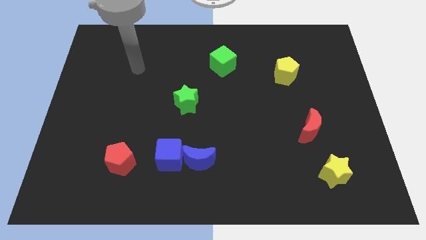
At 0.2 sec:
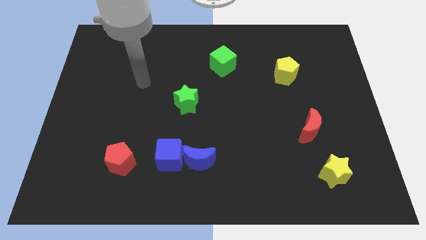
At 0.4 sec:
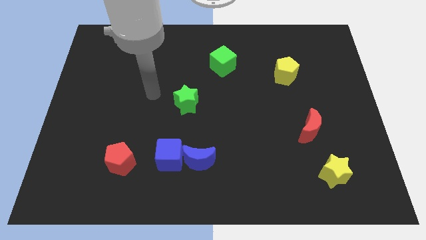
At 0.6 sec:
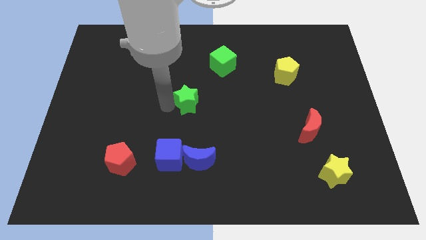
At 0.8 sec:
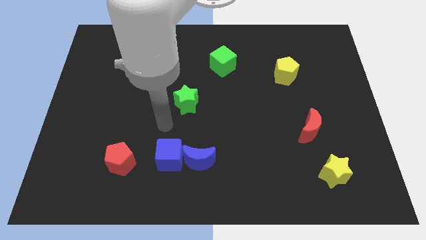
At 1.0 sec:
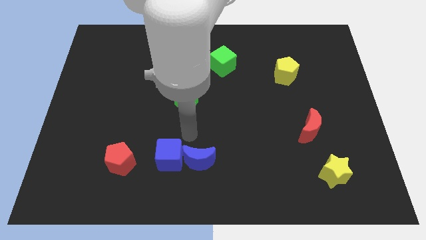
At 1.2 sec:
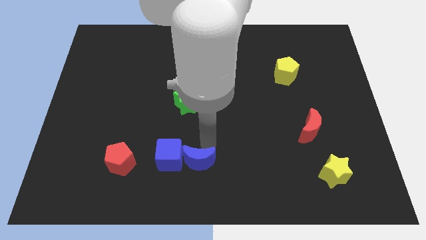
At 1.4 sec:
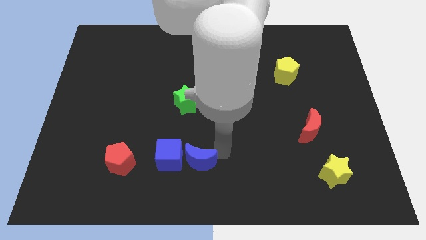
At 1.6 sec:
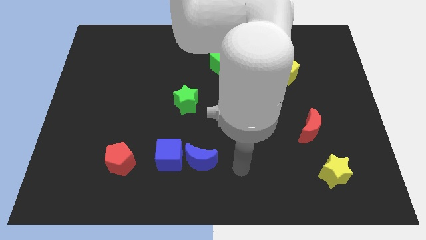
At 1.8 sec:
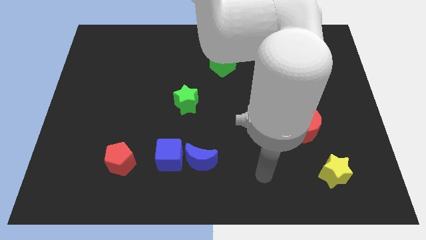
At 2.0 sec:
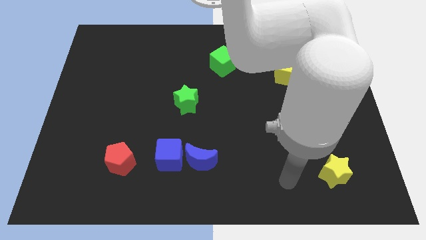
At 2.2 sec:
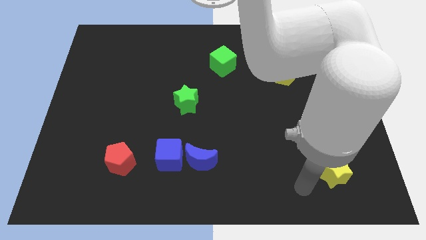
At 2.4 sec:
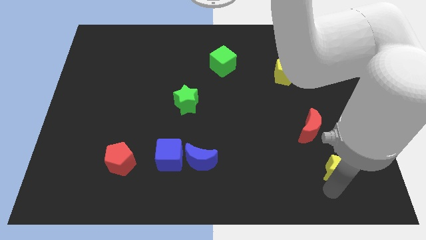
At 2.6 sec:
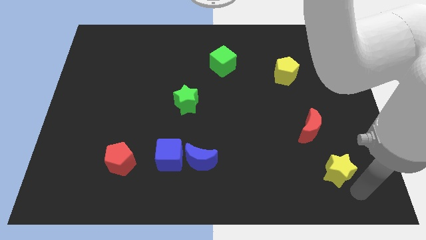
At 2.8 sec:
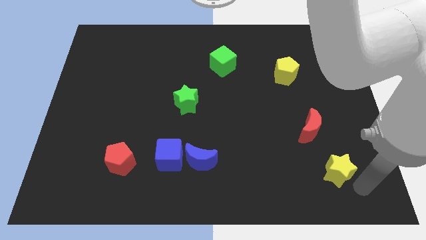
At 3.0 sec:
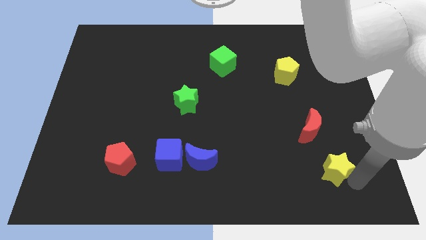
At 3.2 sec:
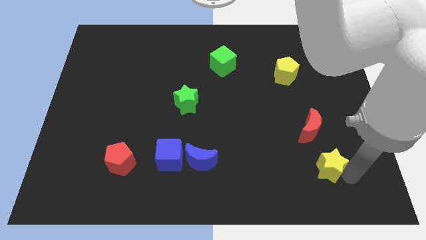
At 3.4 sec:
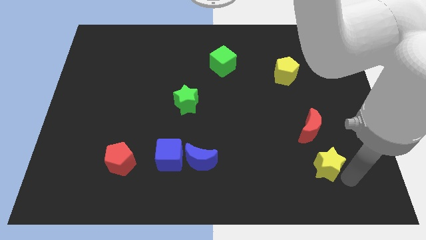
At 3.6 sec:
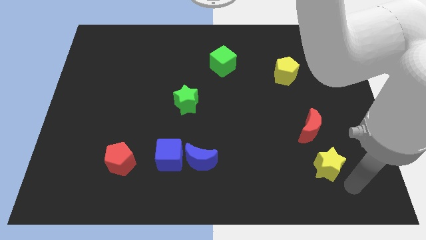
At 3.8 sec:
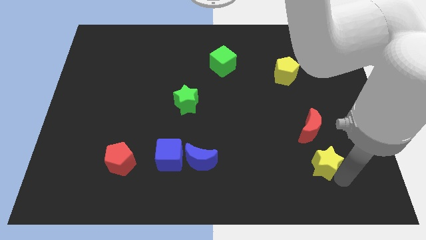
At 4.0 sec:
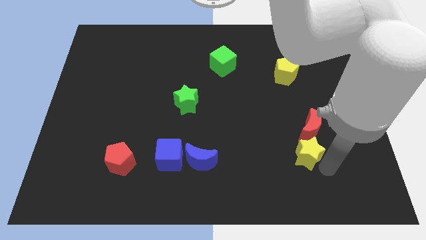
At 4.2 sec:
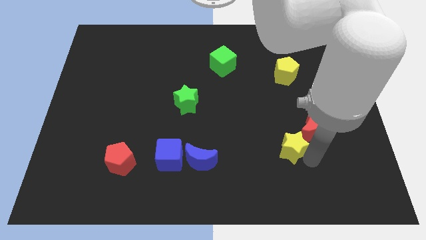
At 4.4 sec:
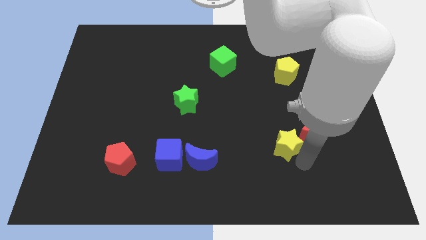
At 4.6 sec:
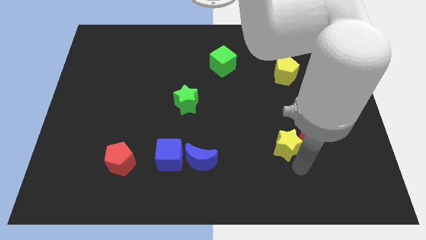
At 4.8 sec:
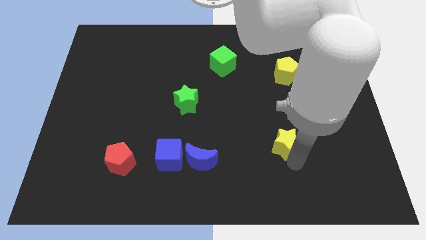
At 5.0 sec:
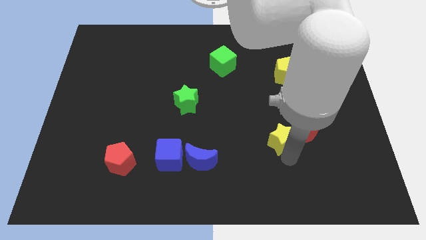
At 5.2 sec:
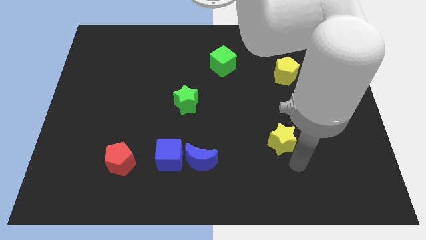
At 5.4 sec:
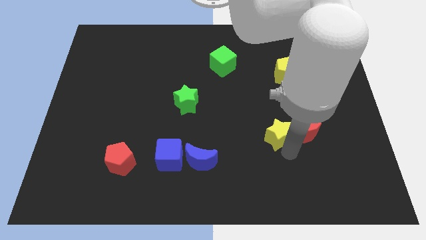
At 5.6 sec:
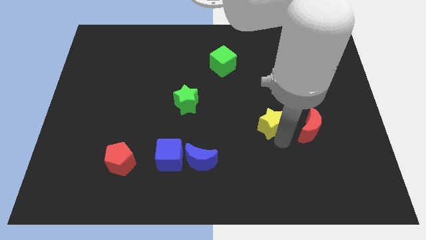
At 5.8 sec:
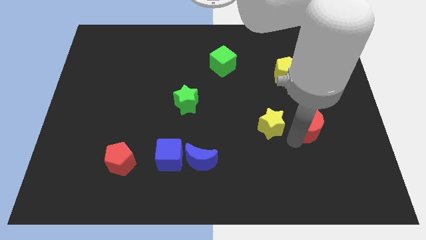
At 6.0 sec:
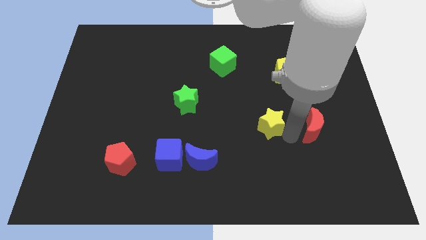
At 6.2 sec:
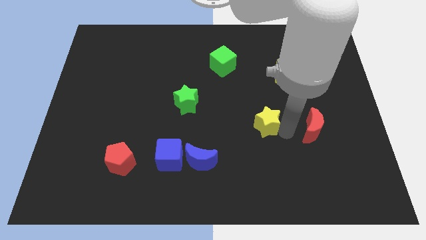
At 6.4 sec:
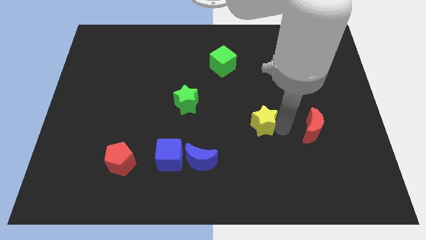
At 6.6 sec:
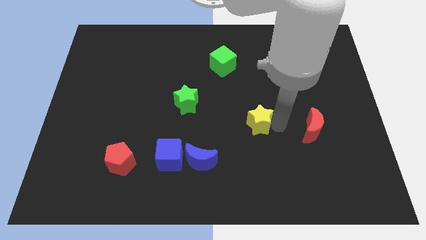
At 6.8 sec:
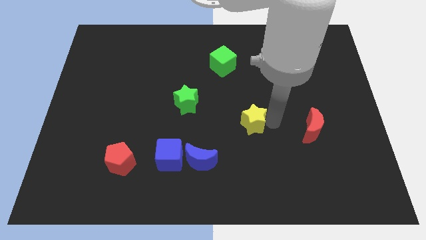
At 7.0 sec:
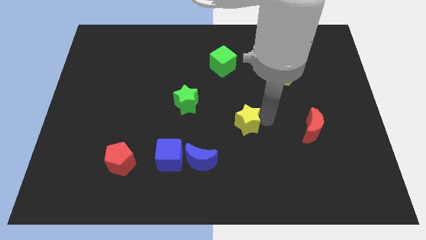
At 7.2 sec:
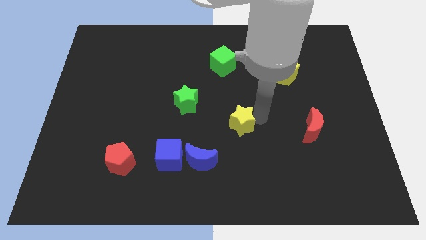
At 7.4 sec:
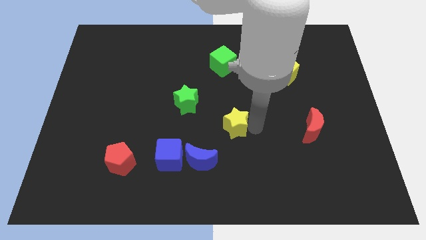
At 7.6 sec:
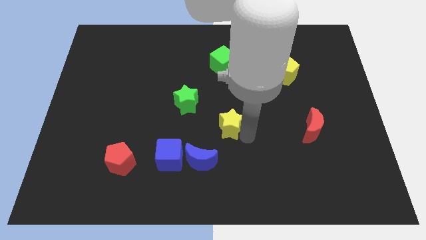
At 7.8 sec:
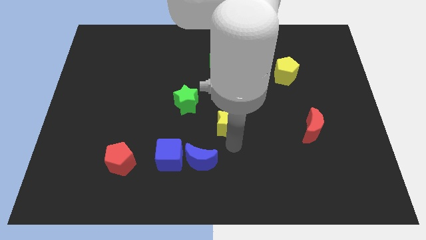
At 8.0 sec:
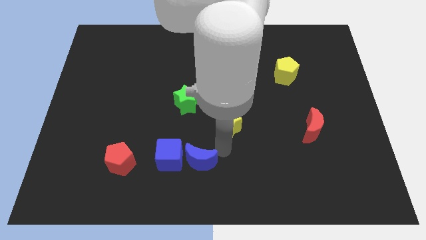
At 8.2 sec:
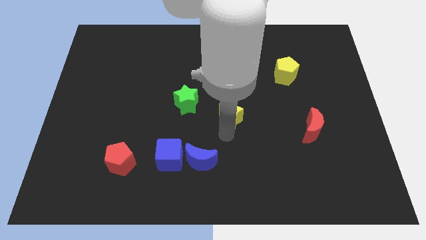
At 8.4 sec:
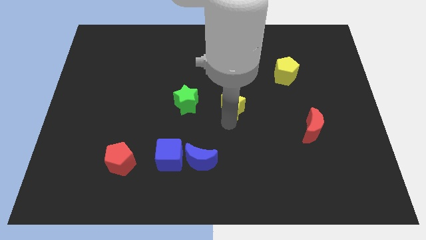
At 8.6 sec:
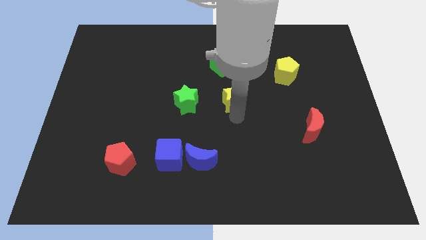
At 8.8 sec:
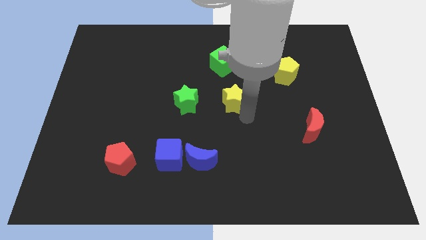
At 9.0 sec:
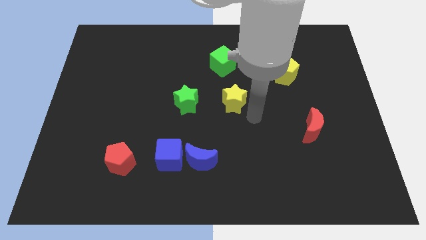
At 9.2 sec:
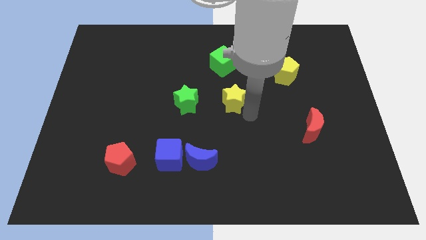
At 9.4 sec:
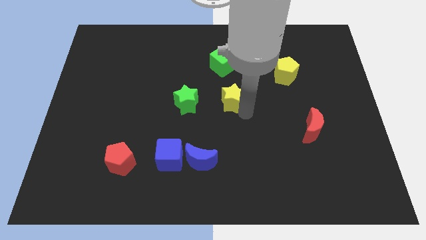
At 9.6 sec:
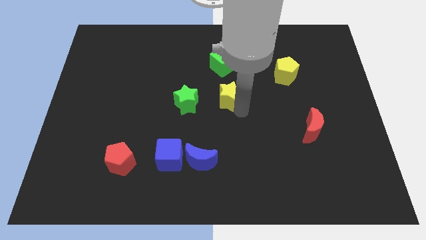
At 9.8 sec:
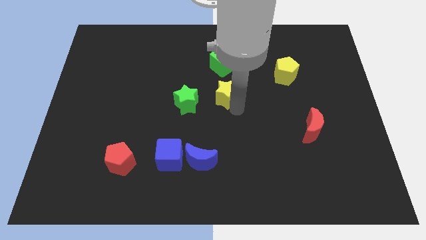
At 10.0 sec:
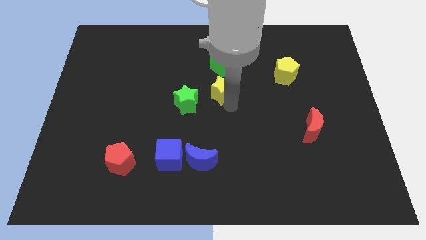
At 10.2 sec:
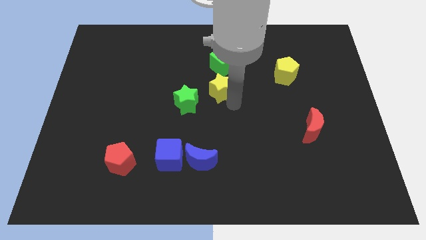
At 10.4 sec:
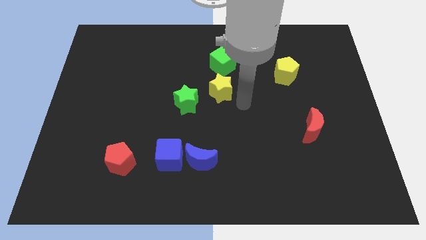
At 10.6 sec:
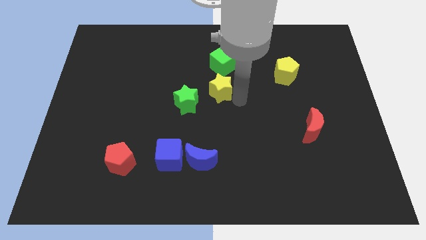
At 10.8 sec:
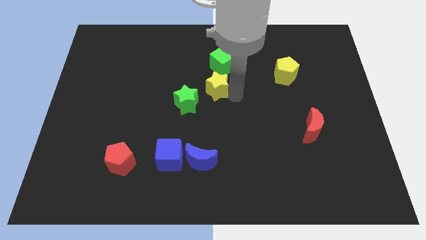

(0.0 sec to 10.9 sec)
slide the yellow star to the bottom left side of the green cube

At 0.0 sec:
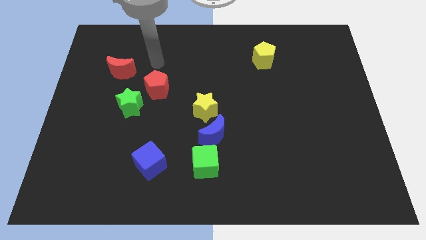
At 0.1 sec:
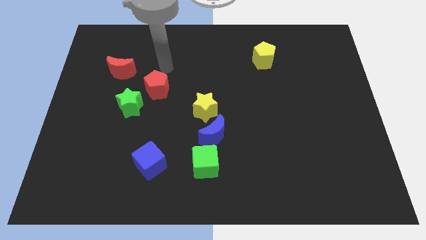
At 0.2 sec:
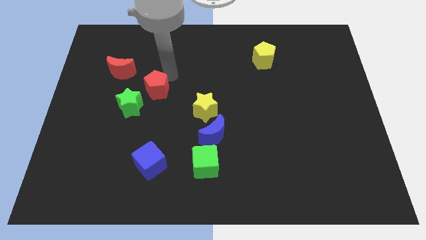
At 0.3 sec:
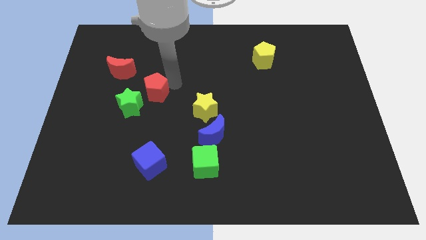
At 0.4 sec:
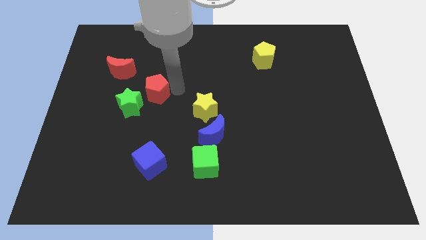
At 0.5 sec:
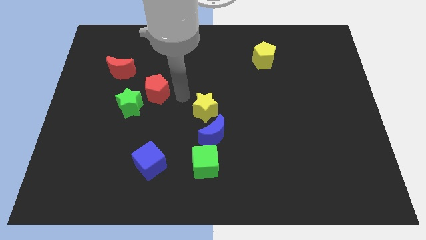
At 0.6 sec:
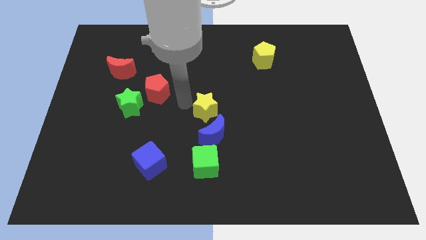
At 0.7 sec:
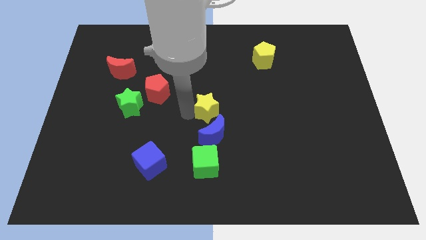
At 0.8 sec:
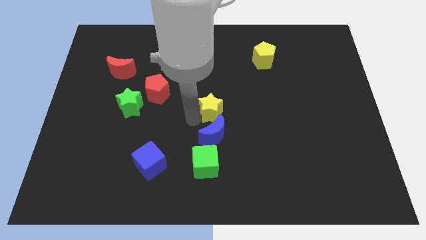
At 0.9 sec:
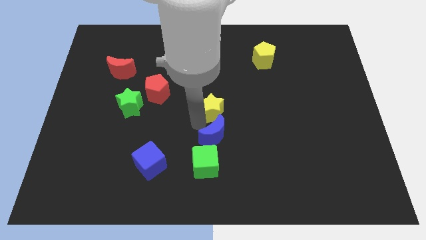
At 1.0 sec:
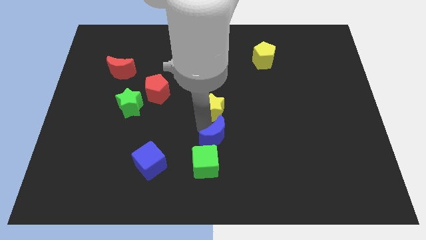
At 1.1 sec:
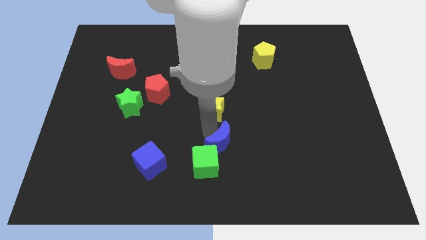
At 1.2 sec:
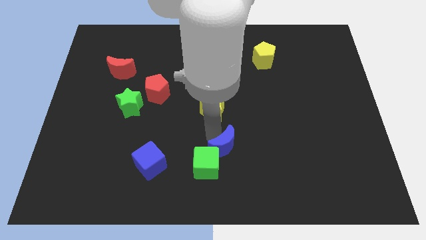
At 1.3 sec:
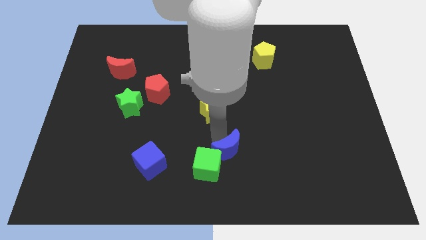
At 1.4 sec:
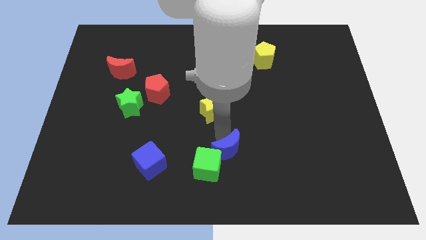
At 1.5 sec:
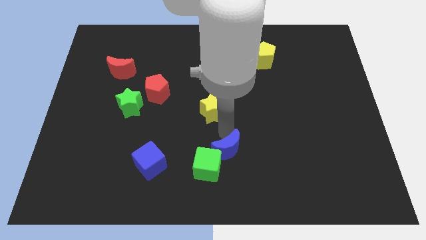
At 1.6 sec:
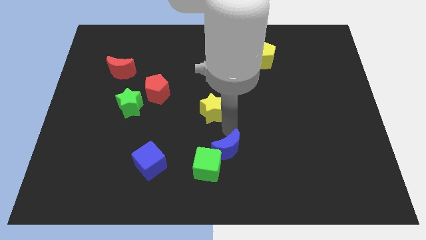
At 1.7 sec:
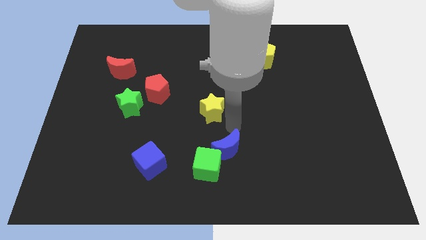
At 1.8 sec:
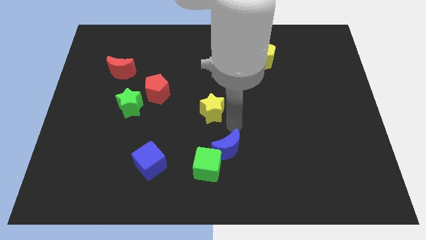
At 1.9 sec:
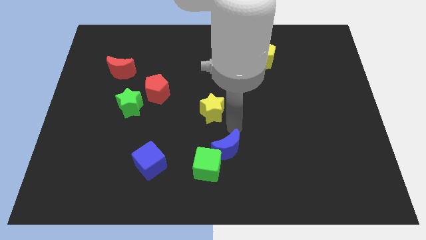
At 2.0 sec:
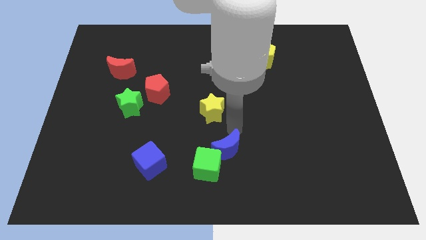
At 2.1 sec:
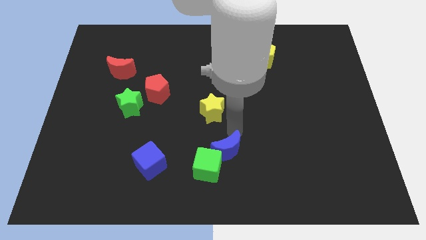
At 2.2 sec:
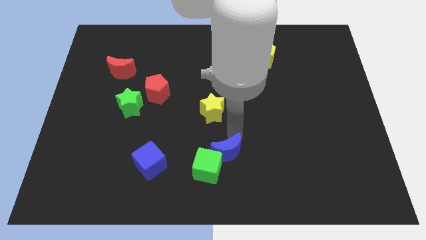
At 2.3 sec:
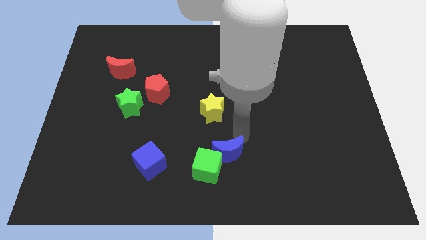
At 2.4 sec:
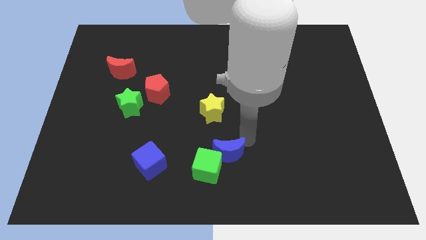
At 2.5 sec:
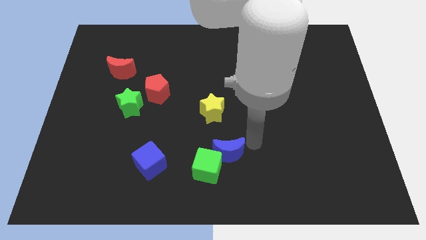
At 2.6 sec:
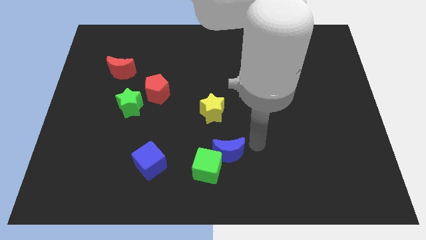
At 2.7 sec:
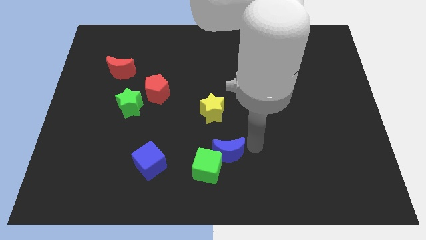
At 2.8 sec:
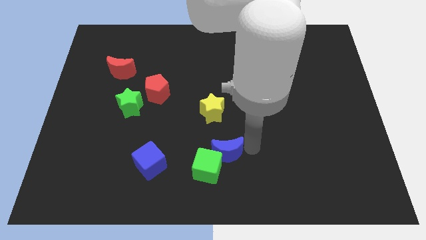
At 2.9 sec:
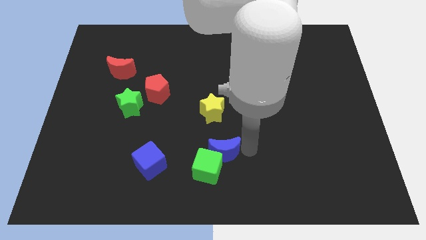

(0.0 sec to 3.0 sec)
move the blue moon right of the blue cube
